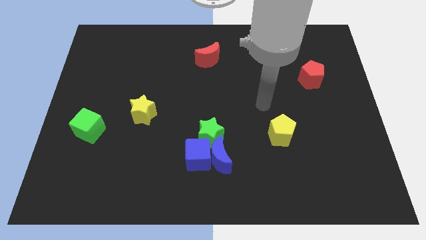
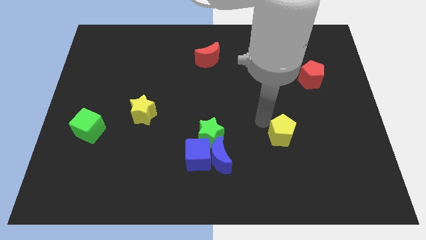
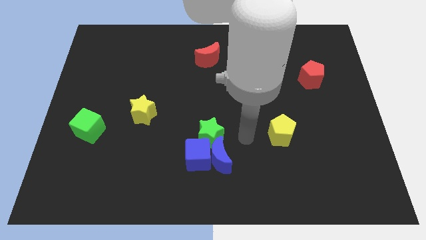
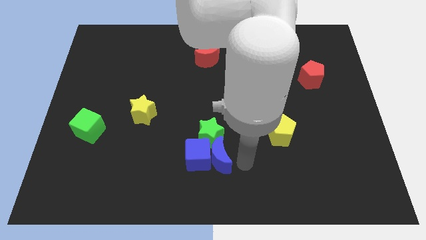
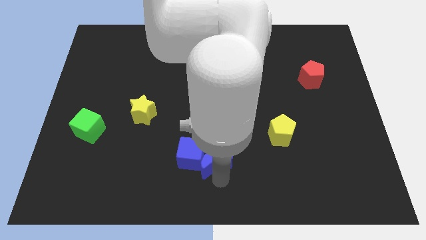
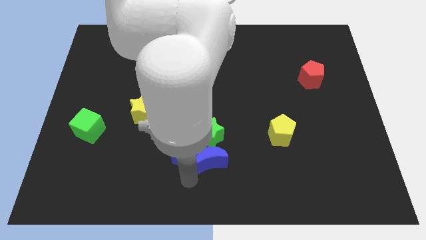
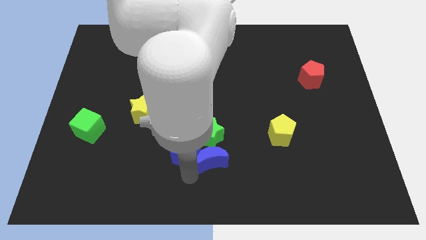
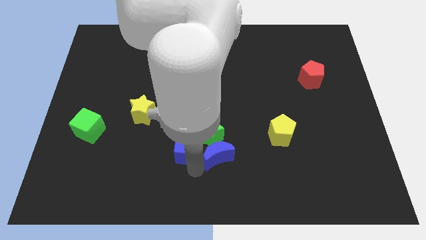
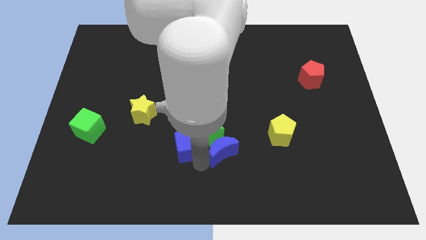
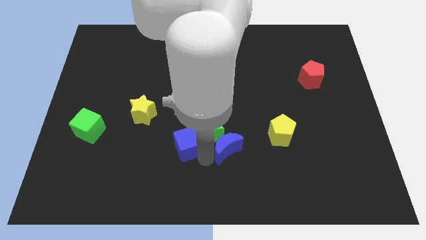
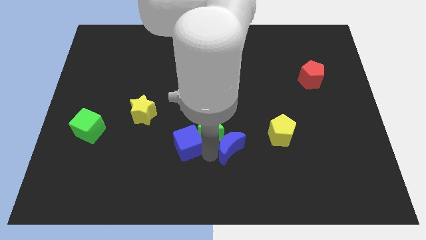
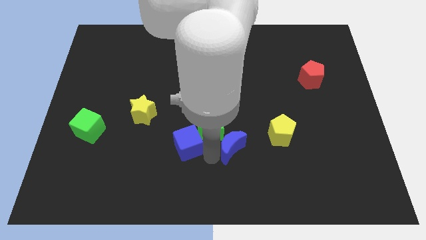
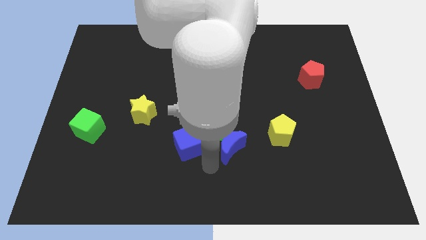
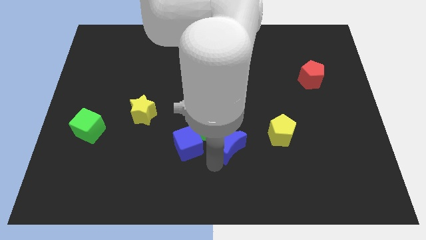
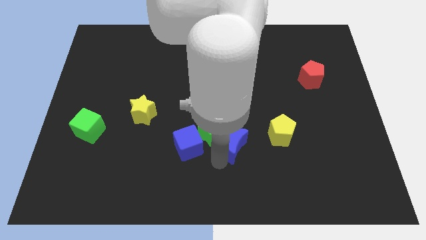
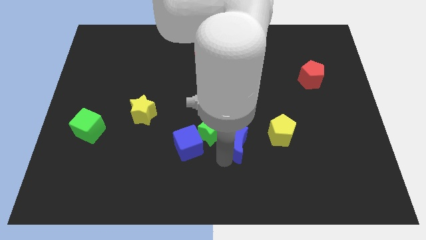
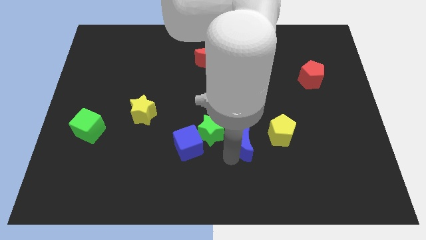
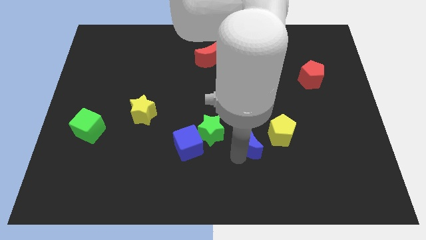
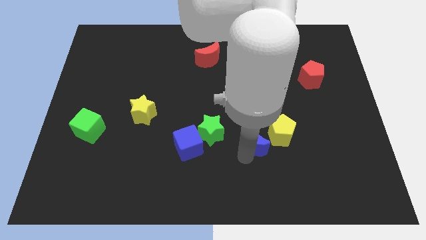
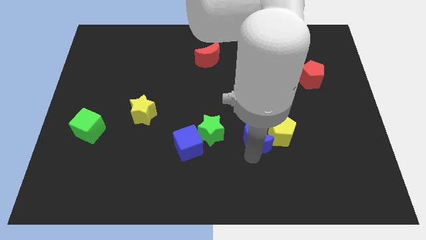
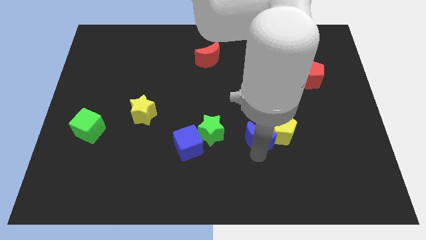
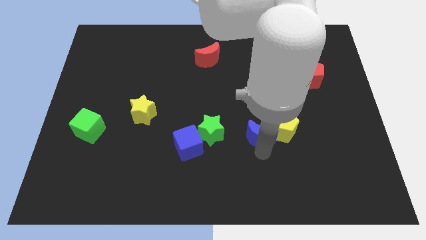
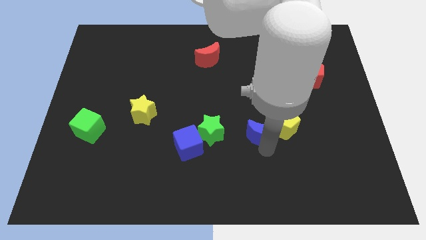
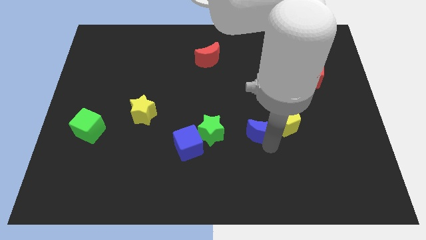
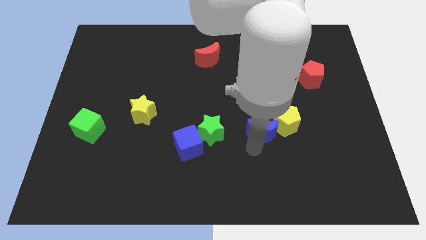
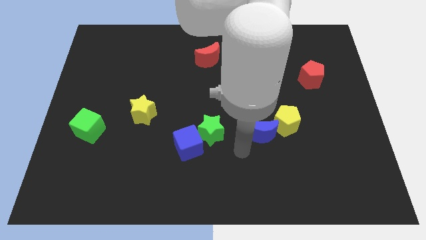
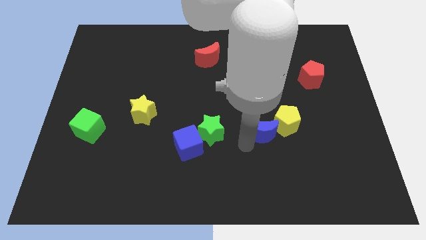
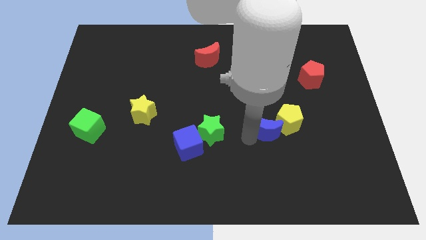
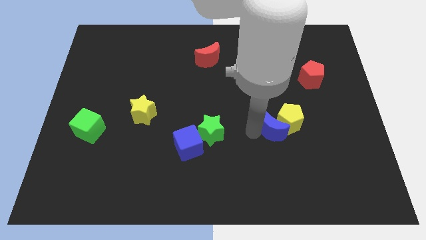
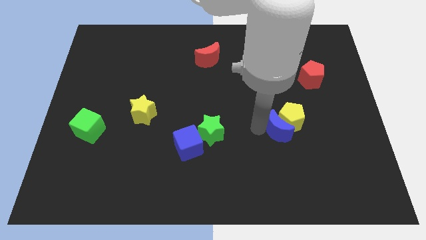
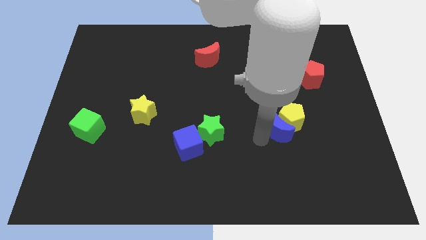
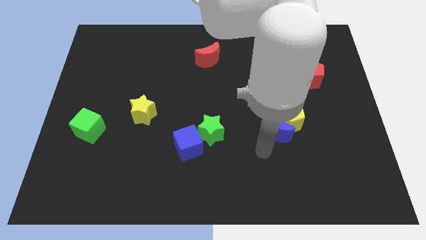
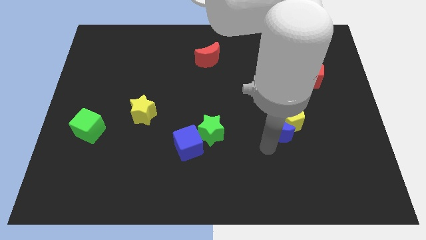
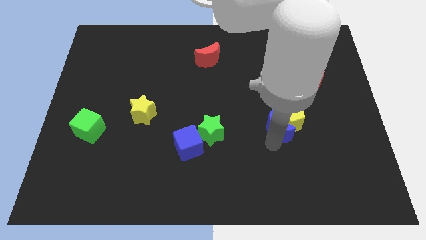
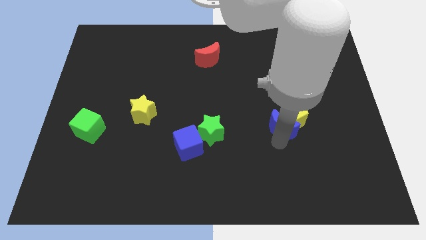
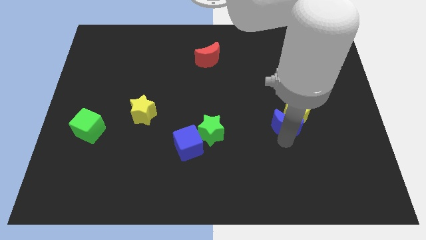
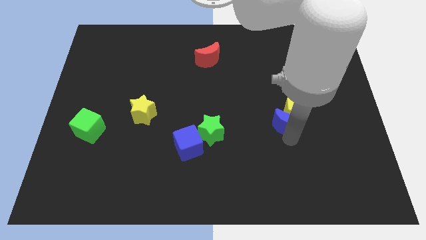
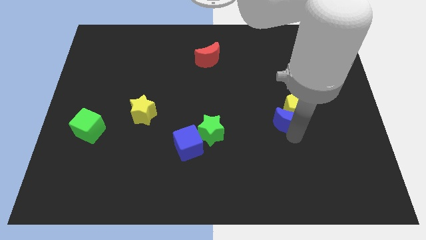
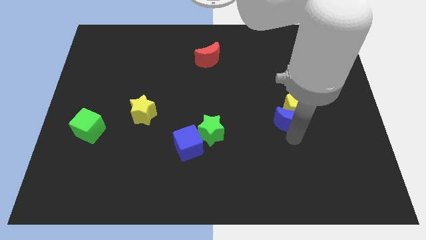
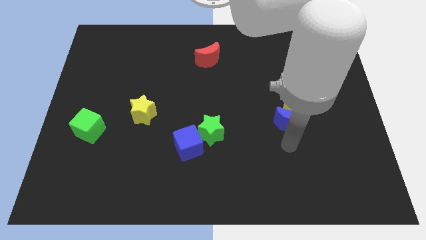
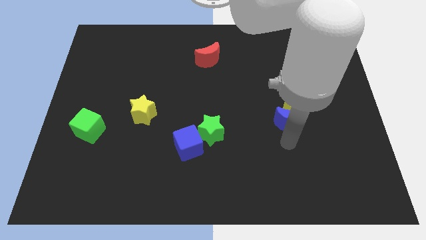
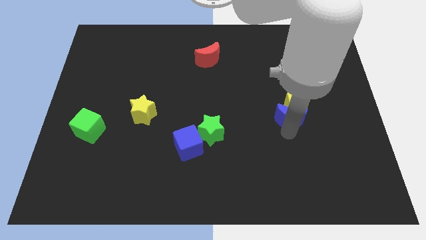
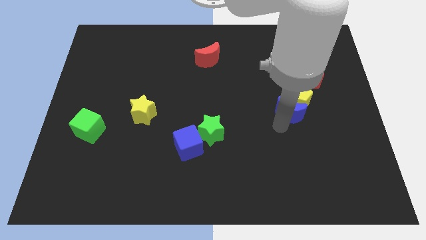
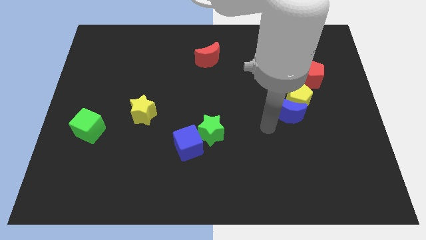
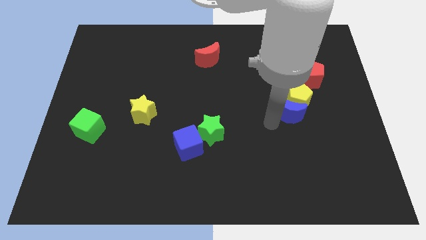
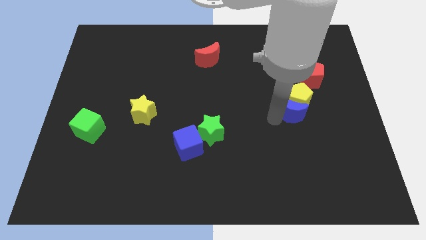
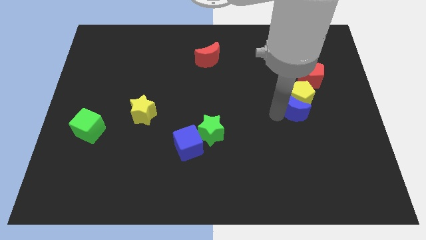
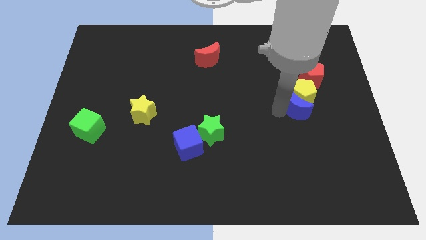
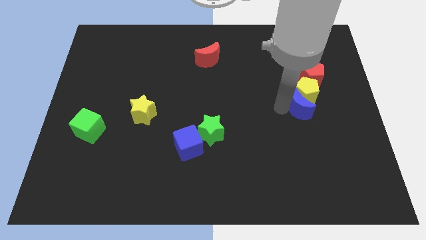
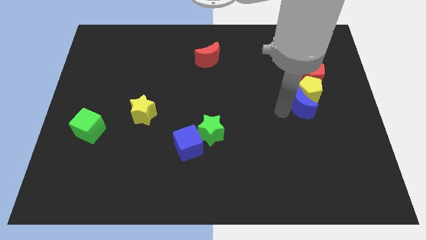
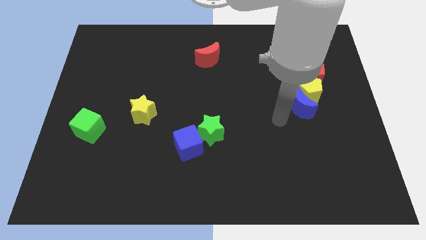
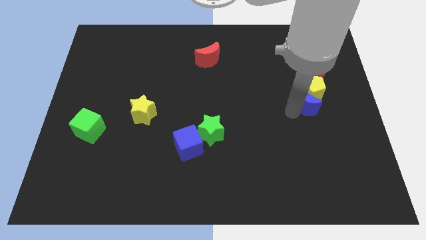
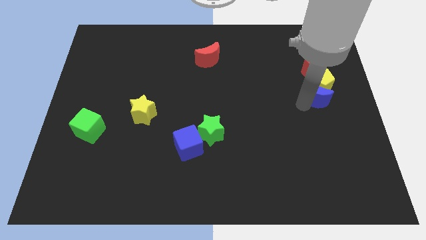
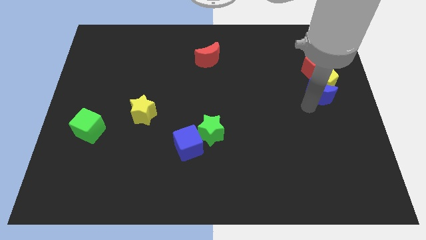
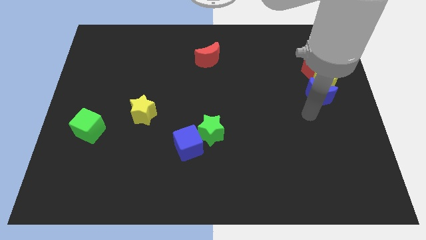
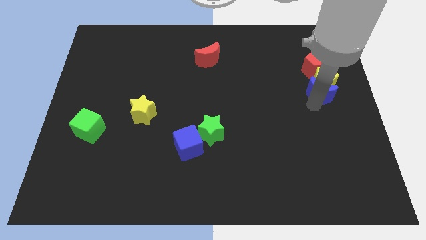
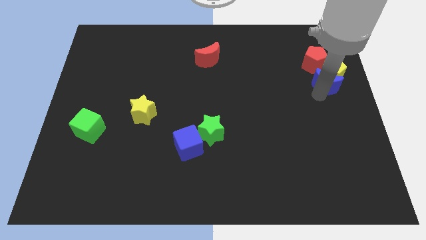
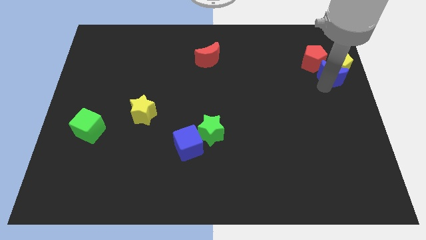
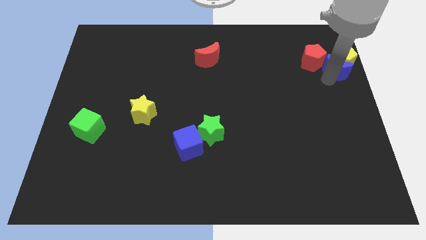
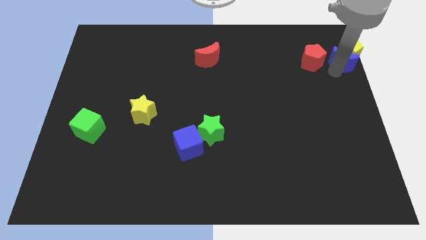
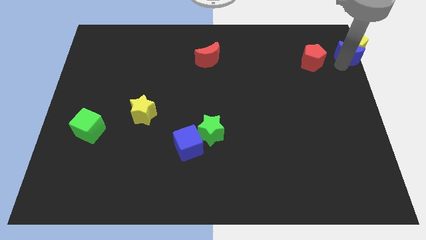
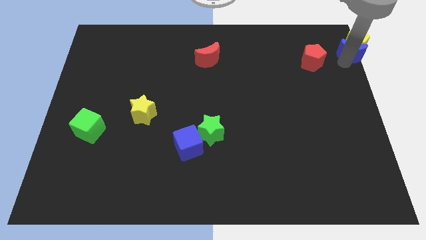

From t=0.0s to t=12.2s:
move the blue moon to the upper right corner

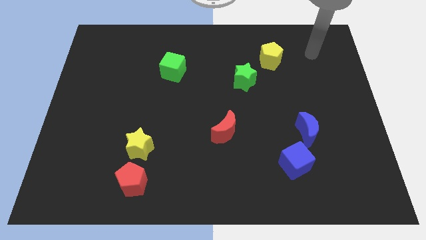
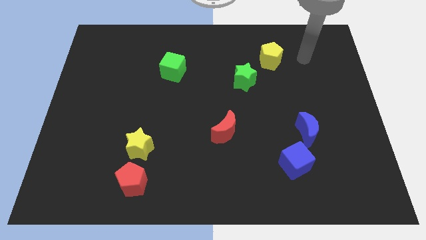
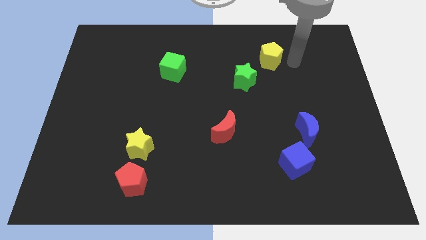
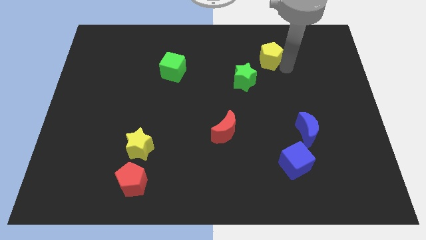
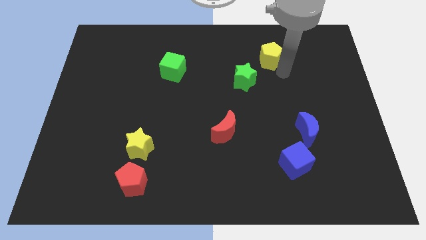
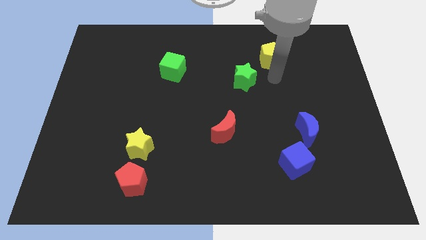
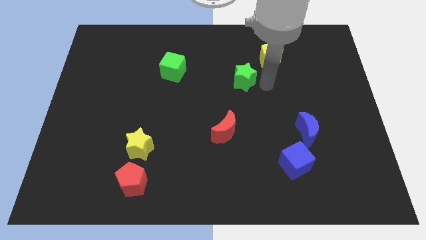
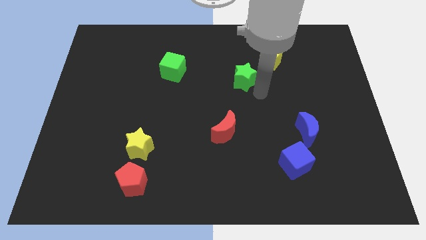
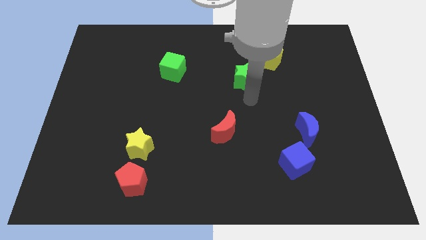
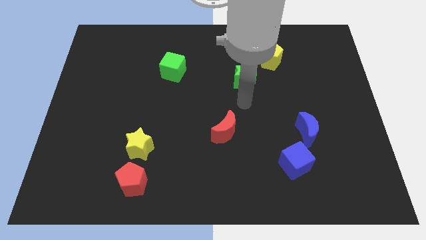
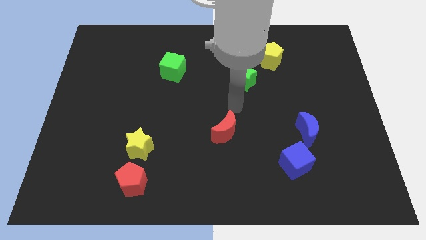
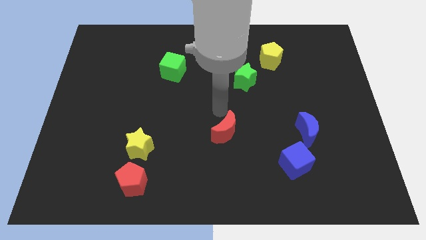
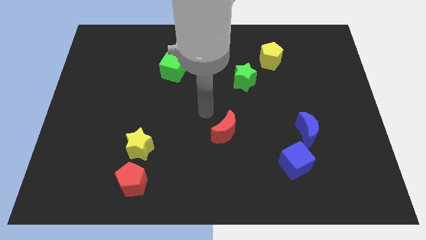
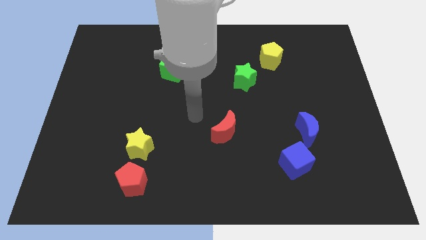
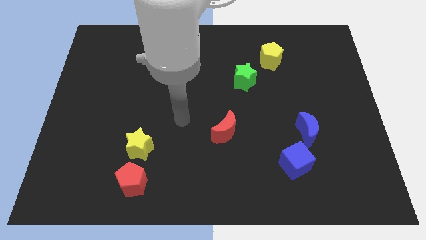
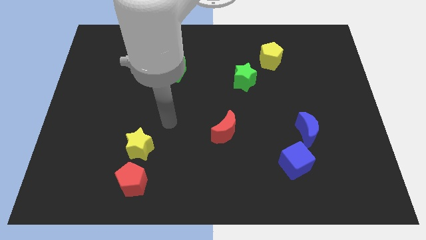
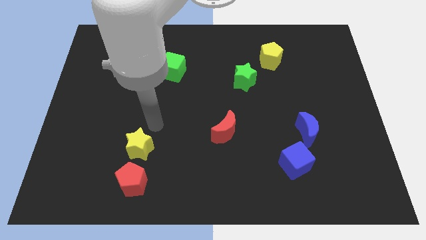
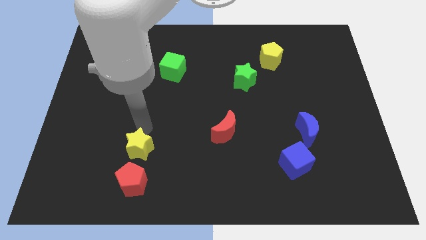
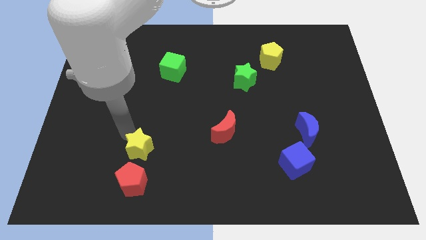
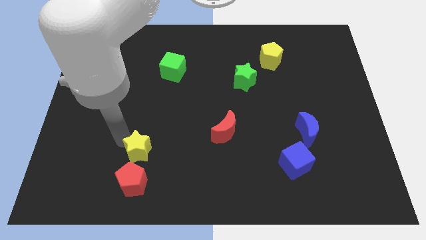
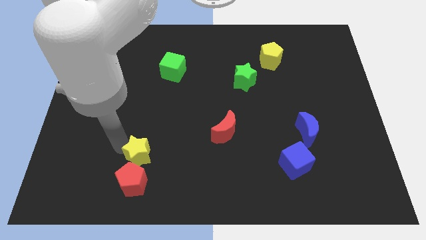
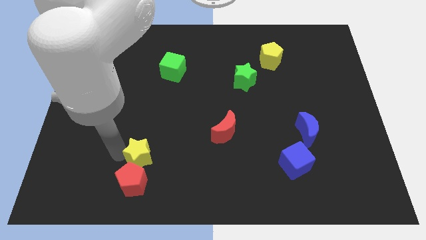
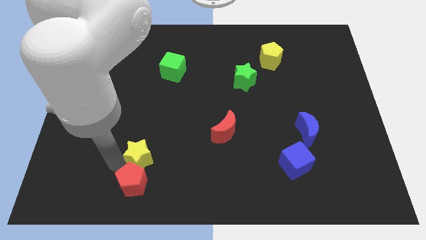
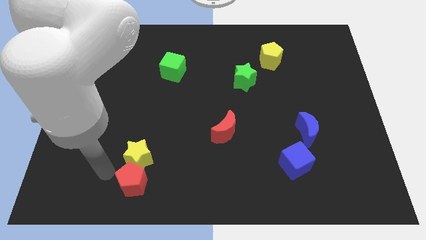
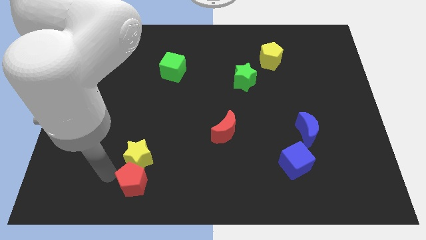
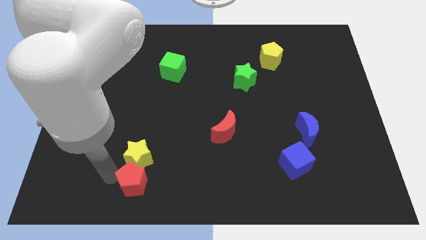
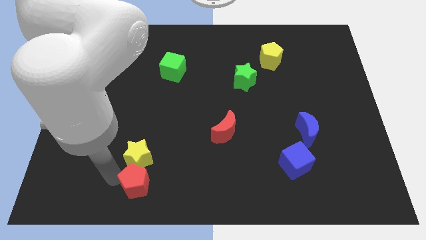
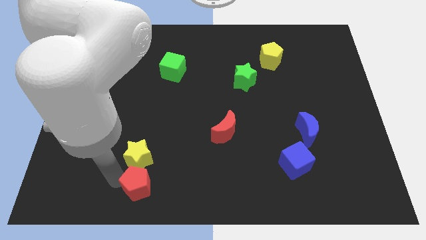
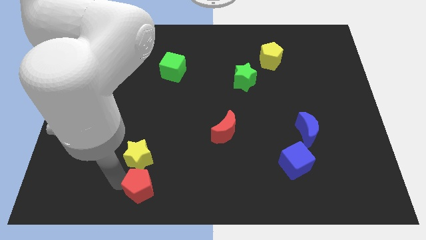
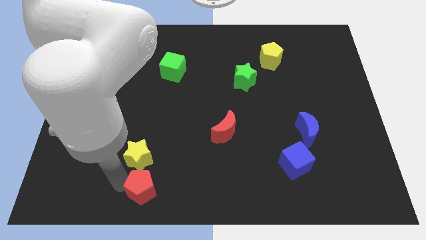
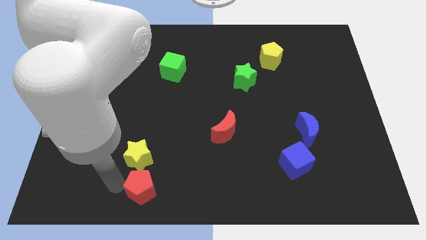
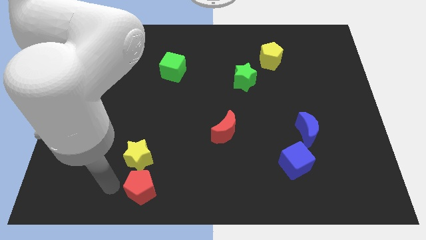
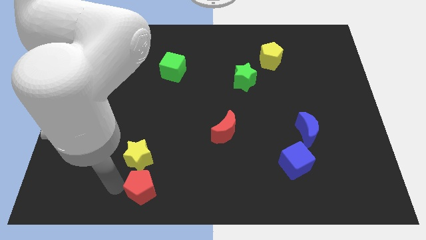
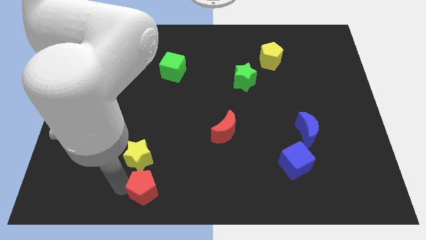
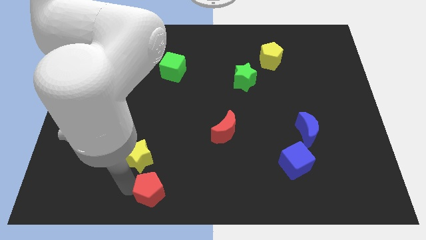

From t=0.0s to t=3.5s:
slide the red pentagon to the bottom side
